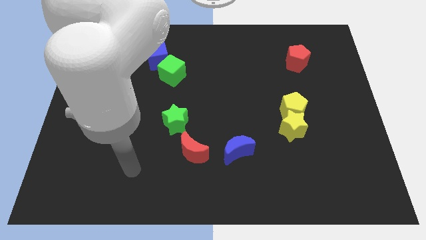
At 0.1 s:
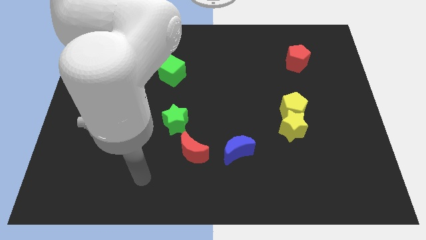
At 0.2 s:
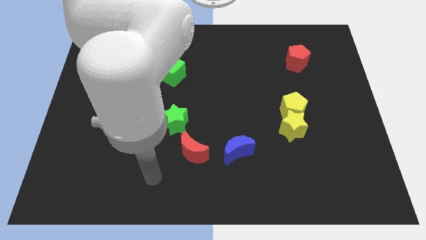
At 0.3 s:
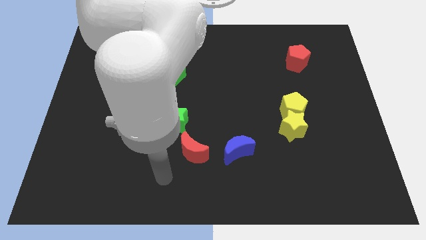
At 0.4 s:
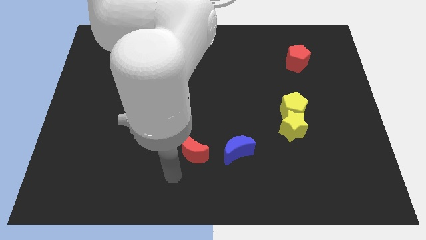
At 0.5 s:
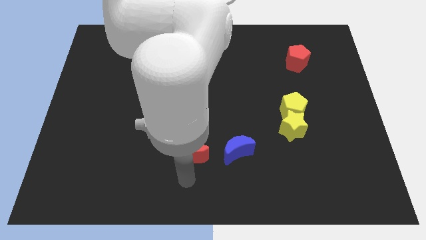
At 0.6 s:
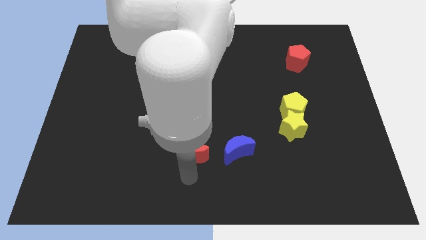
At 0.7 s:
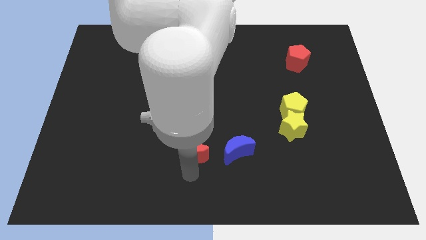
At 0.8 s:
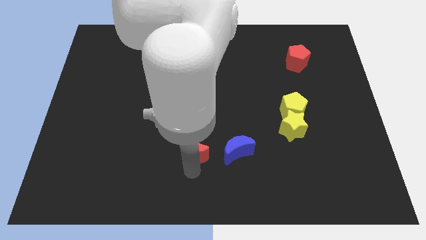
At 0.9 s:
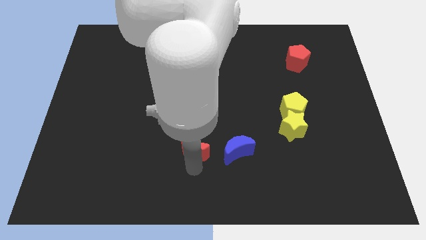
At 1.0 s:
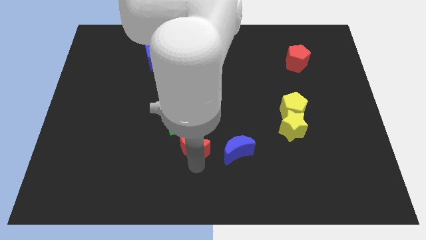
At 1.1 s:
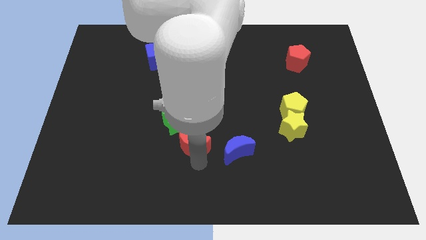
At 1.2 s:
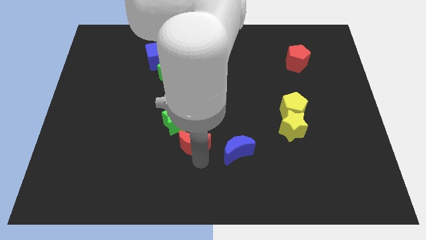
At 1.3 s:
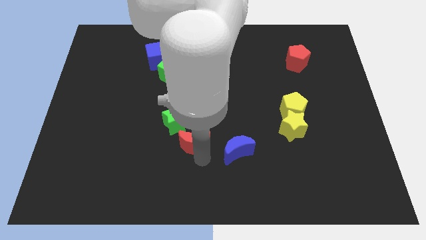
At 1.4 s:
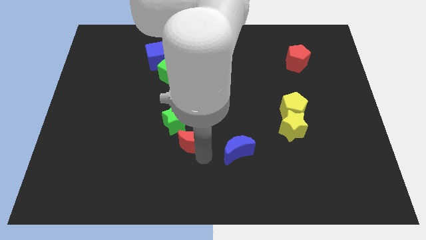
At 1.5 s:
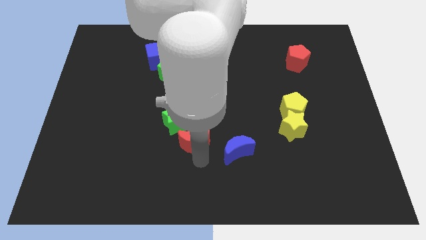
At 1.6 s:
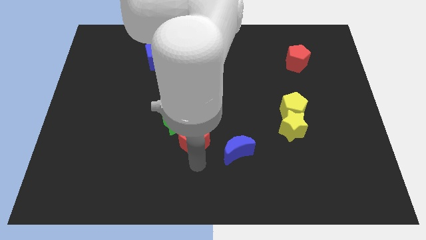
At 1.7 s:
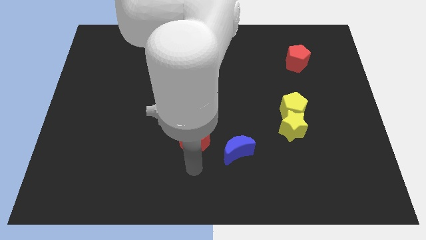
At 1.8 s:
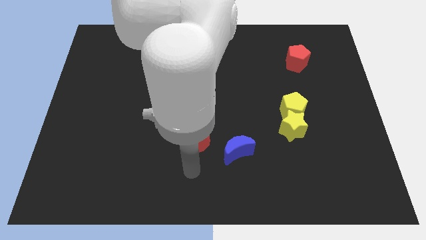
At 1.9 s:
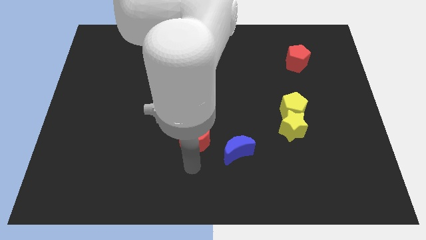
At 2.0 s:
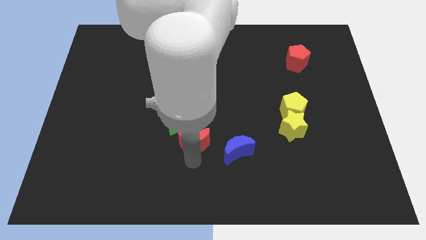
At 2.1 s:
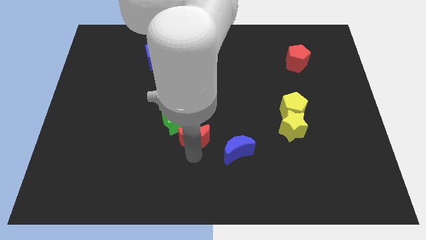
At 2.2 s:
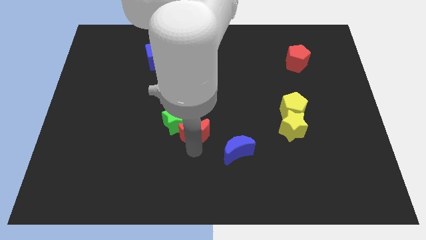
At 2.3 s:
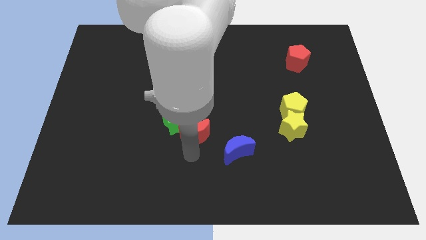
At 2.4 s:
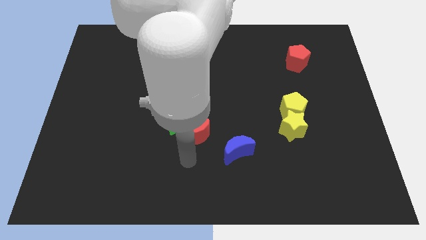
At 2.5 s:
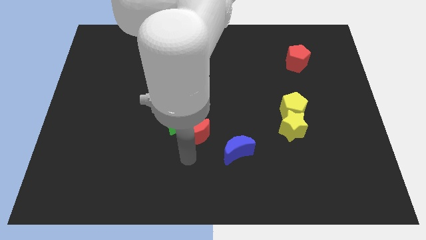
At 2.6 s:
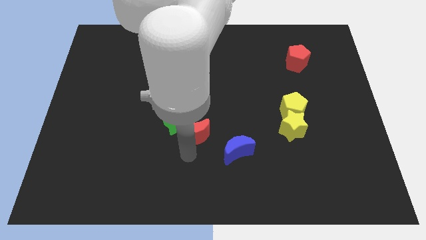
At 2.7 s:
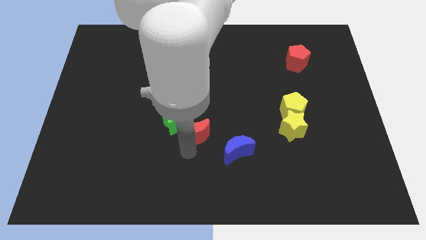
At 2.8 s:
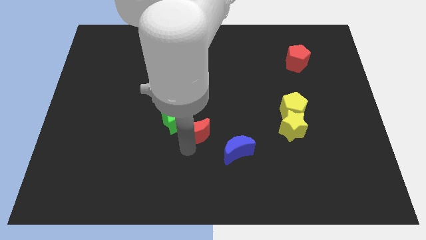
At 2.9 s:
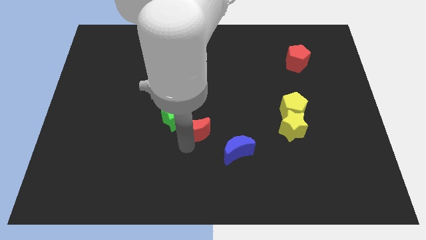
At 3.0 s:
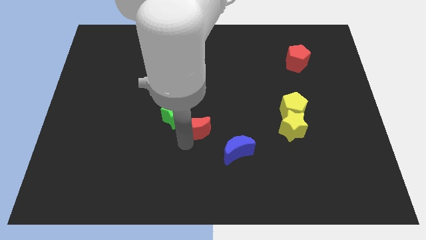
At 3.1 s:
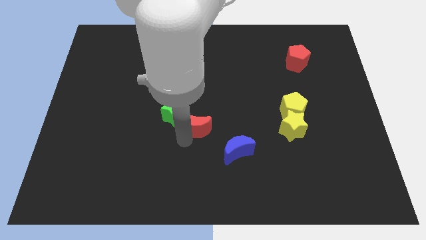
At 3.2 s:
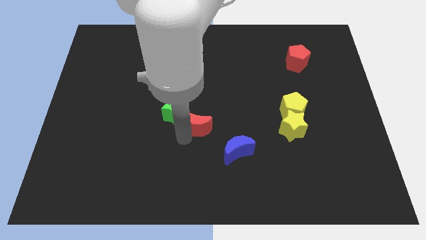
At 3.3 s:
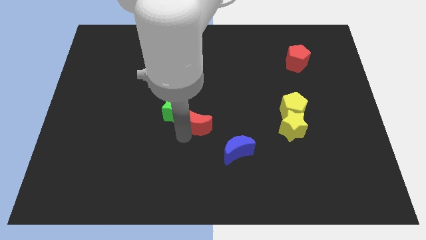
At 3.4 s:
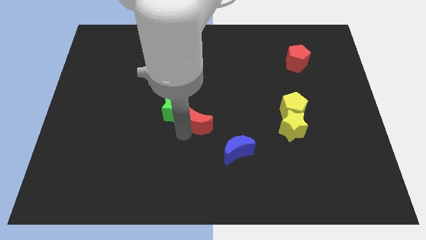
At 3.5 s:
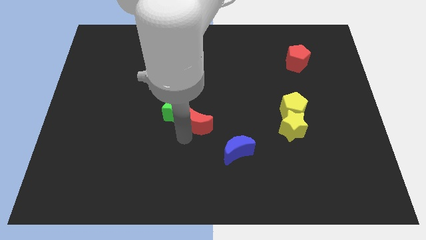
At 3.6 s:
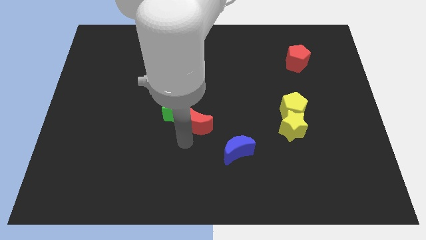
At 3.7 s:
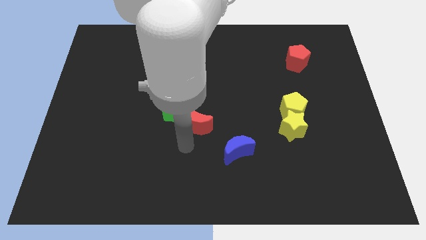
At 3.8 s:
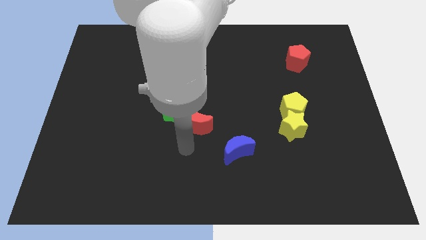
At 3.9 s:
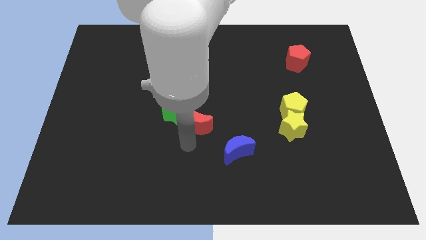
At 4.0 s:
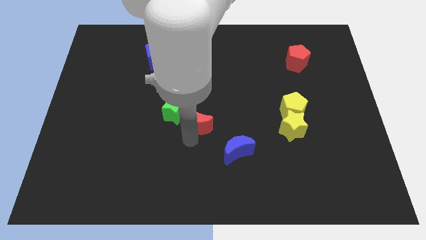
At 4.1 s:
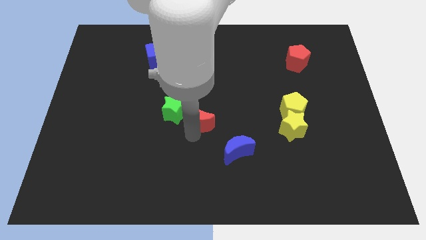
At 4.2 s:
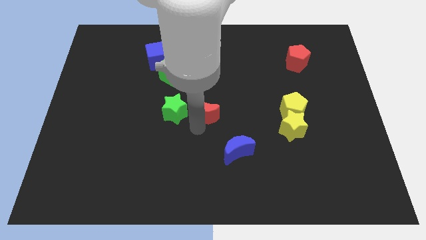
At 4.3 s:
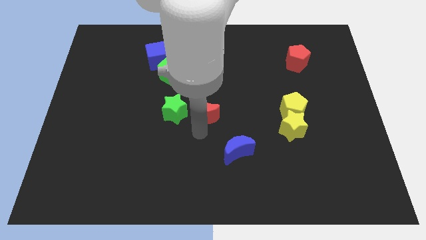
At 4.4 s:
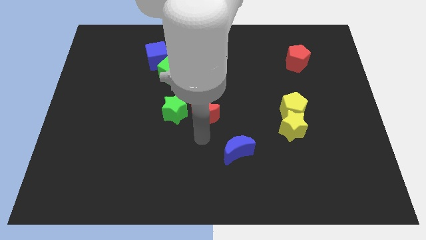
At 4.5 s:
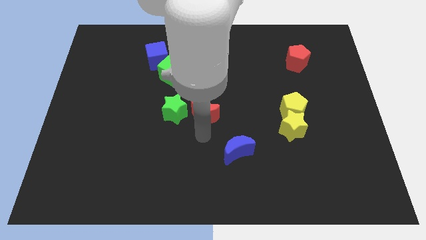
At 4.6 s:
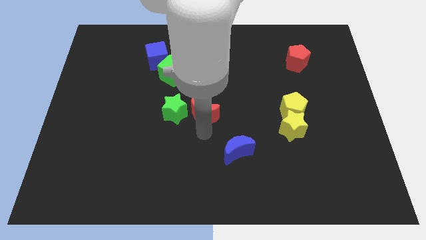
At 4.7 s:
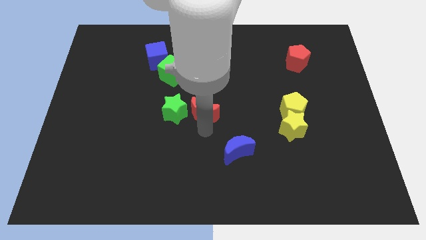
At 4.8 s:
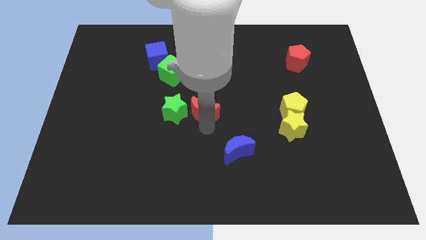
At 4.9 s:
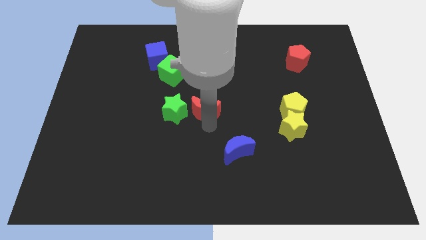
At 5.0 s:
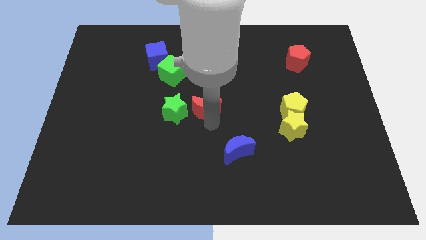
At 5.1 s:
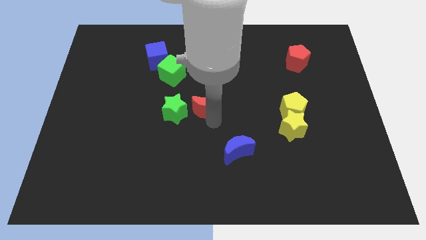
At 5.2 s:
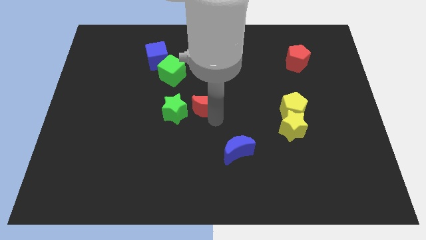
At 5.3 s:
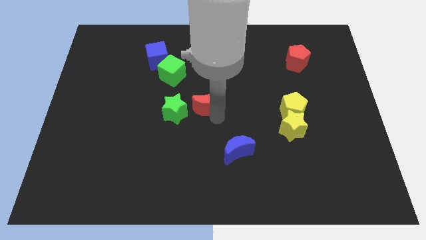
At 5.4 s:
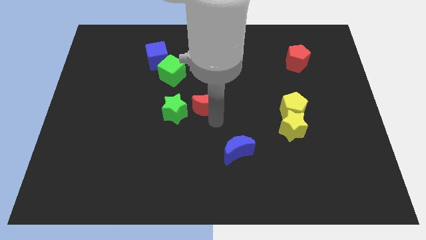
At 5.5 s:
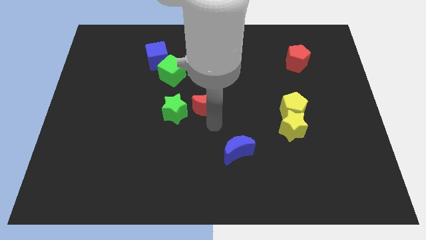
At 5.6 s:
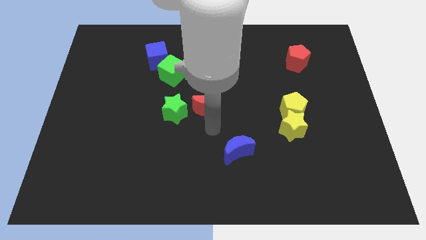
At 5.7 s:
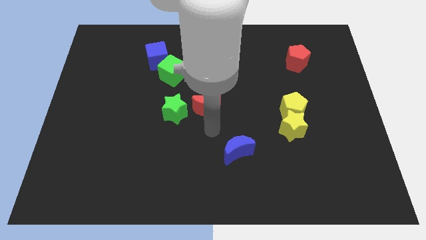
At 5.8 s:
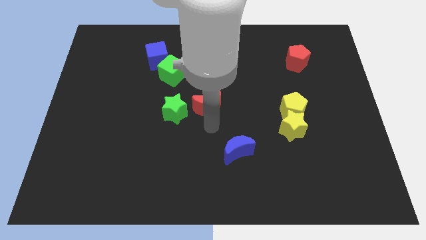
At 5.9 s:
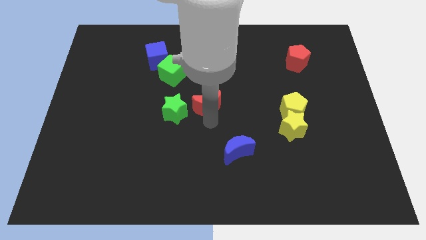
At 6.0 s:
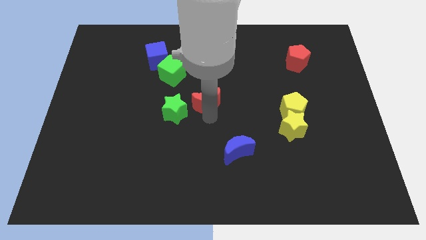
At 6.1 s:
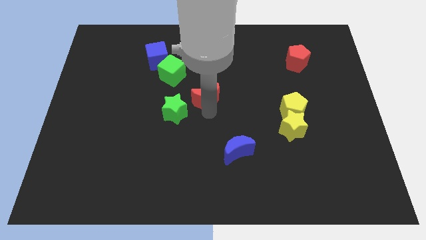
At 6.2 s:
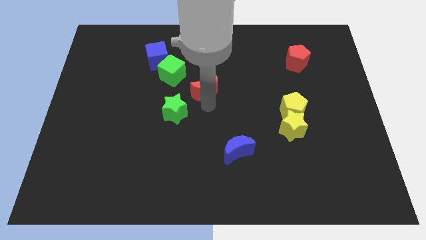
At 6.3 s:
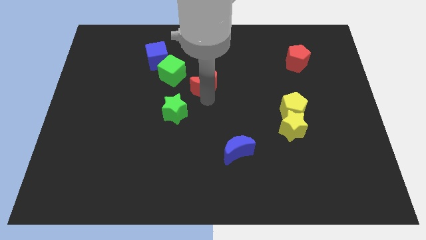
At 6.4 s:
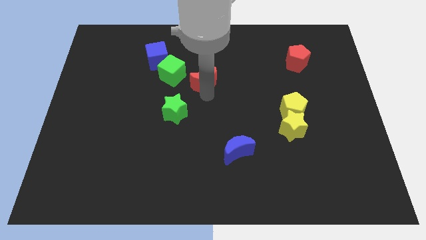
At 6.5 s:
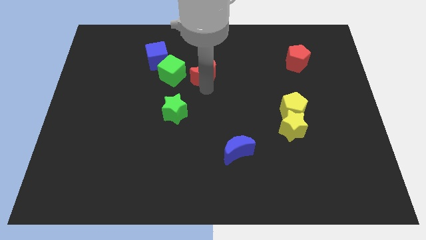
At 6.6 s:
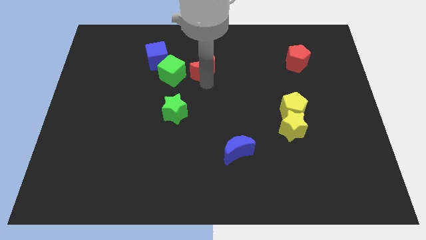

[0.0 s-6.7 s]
move the red moon to the right side of the blue cube

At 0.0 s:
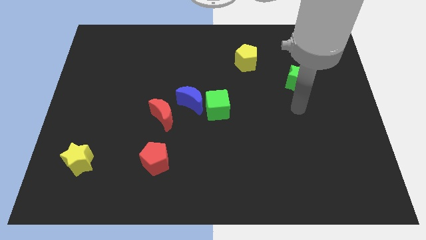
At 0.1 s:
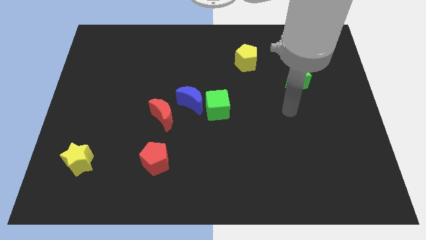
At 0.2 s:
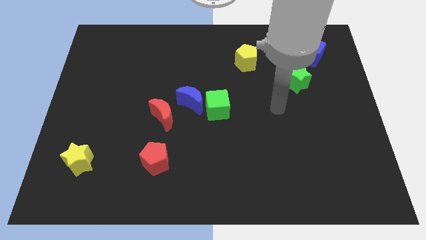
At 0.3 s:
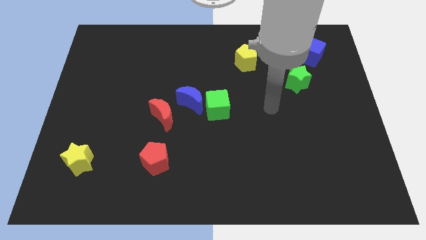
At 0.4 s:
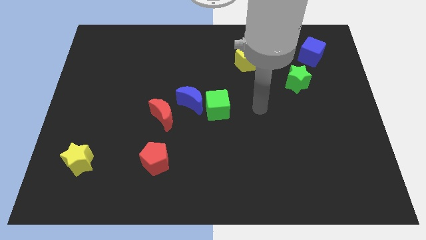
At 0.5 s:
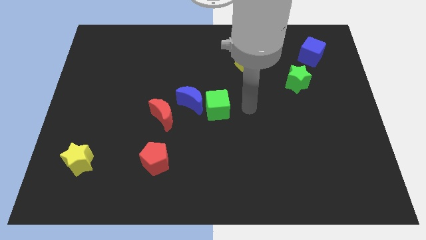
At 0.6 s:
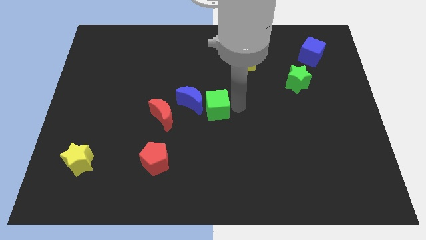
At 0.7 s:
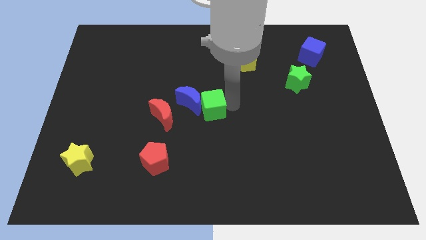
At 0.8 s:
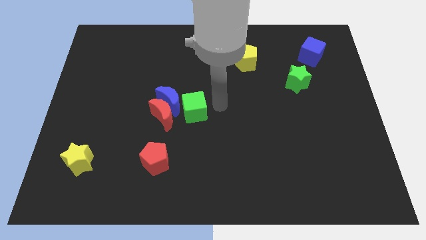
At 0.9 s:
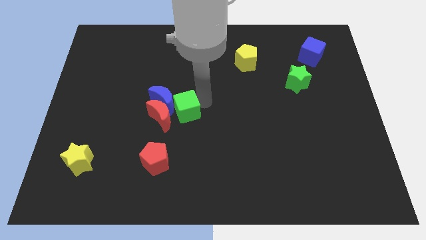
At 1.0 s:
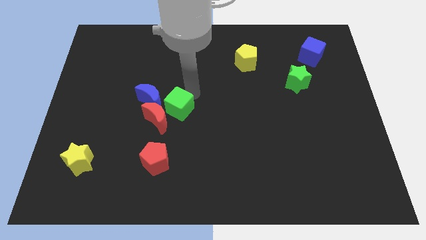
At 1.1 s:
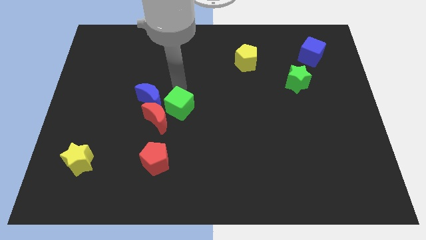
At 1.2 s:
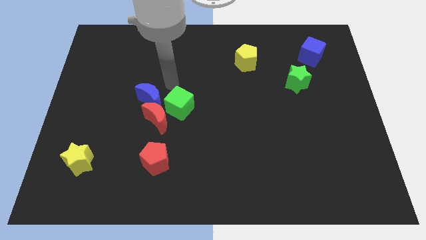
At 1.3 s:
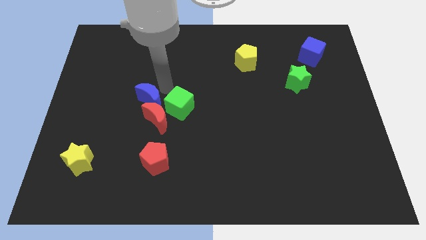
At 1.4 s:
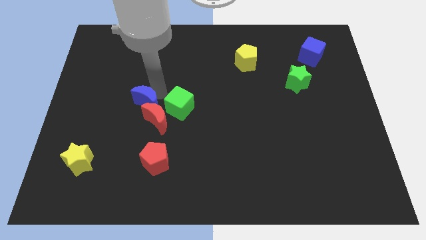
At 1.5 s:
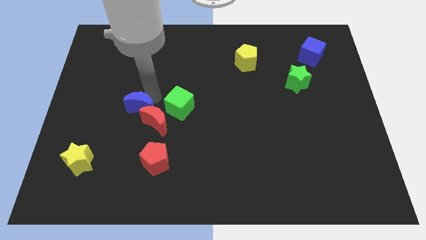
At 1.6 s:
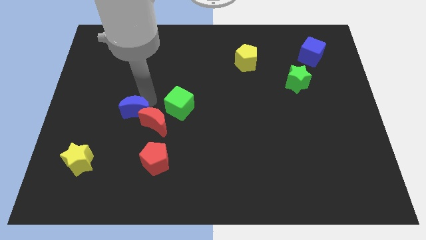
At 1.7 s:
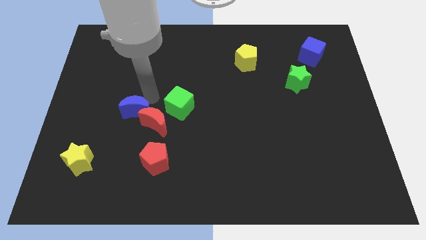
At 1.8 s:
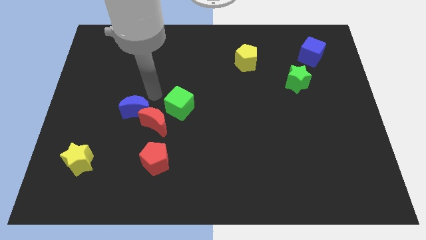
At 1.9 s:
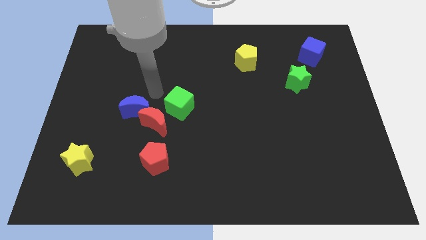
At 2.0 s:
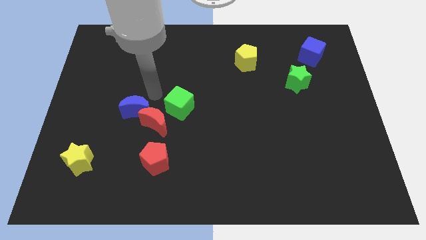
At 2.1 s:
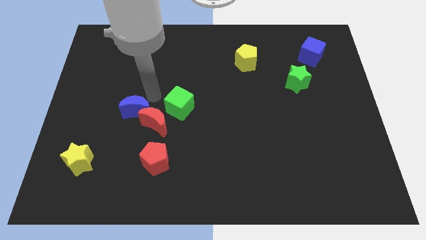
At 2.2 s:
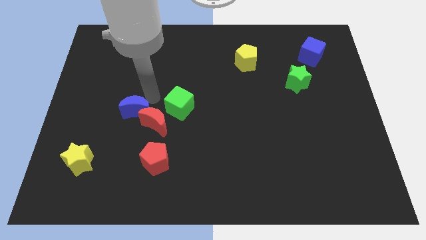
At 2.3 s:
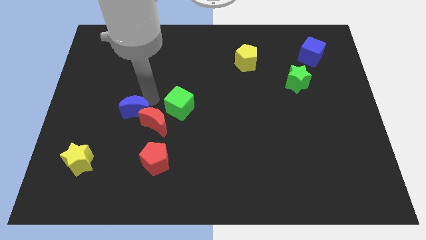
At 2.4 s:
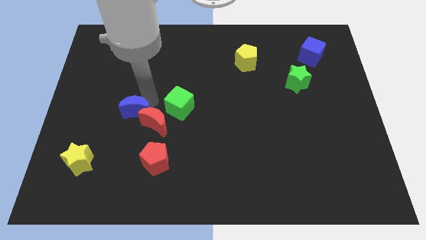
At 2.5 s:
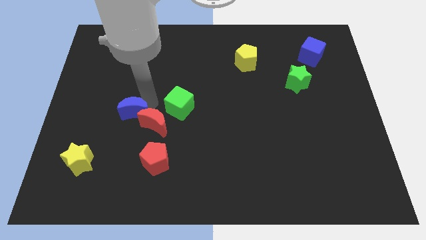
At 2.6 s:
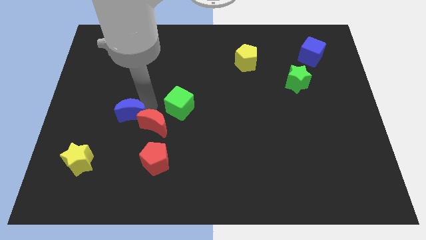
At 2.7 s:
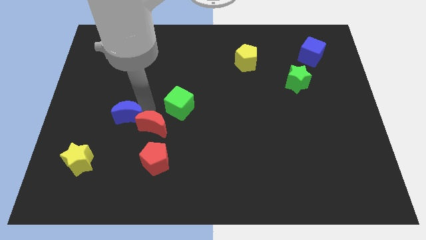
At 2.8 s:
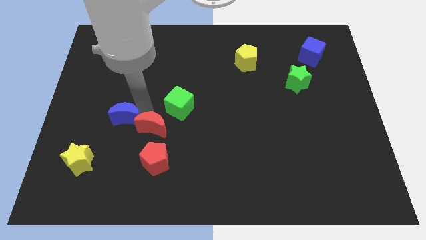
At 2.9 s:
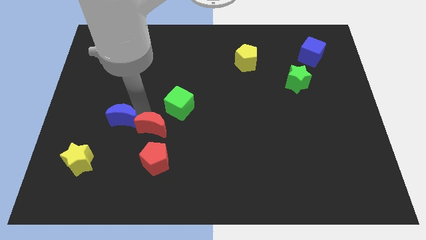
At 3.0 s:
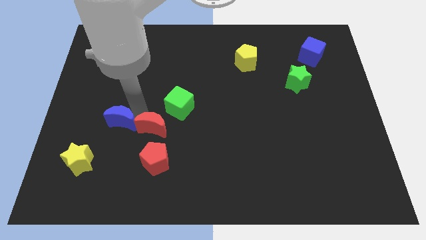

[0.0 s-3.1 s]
put the blue moon to the top right of the yellow star
